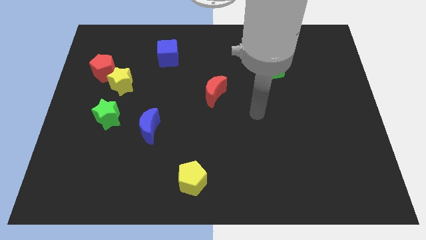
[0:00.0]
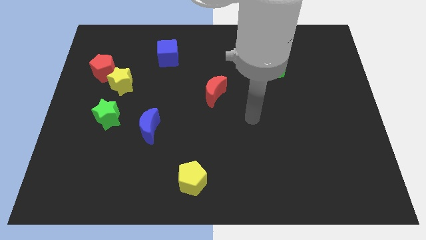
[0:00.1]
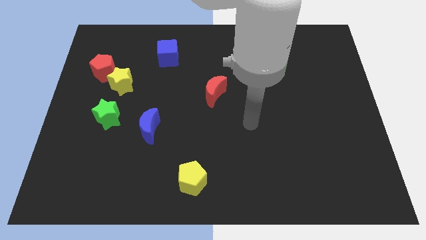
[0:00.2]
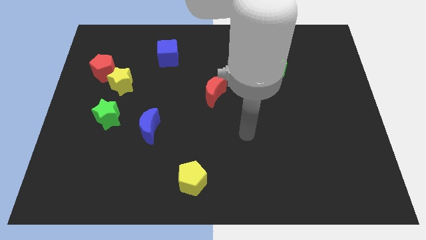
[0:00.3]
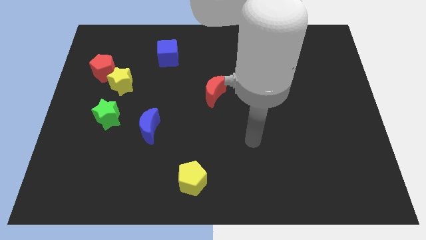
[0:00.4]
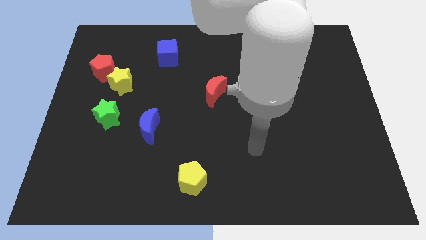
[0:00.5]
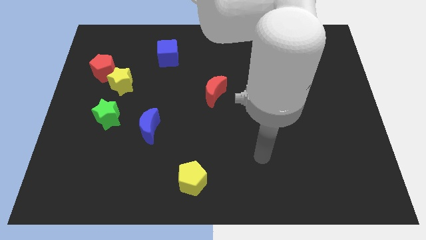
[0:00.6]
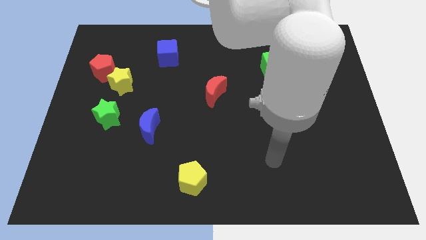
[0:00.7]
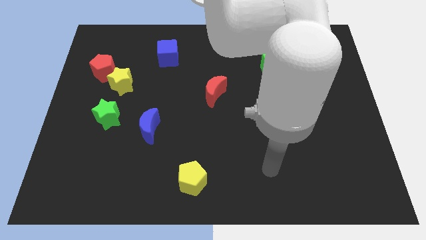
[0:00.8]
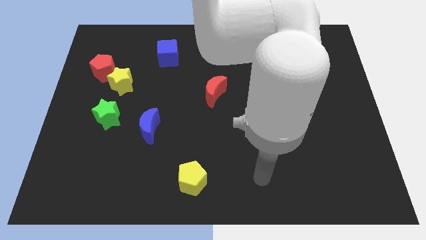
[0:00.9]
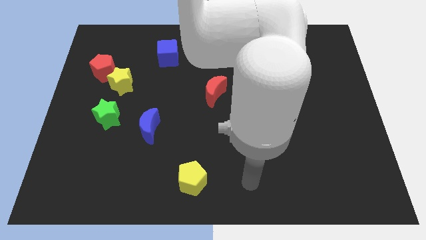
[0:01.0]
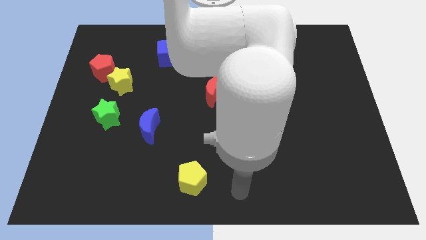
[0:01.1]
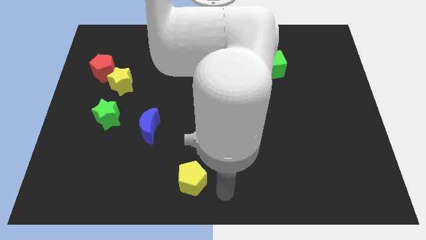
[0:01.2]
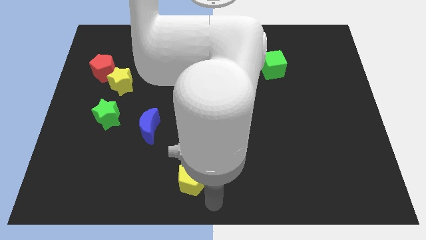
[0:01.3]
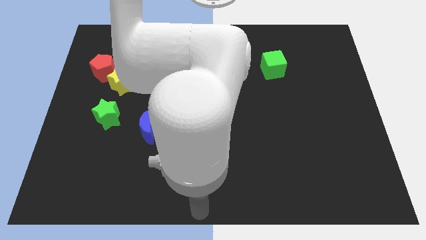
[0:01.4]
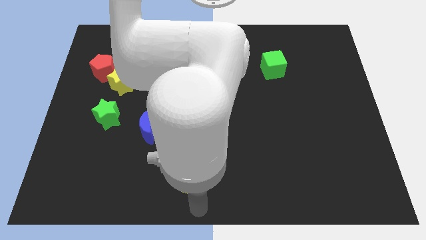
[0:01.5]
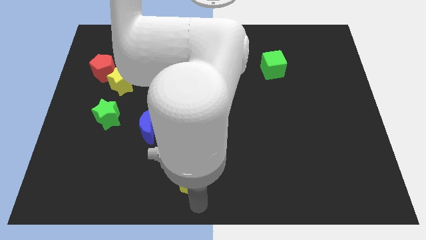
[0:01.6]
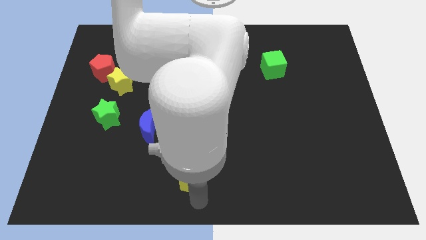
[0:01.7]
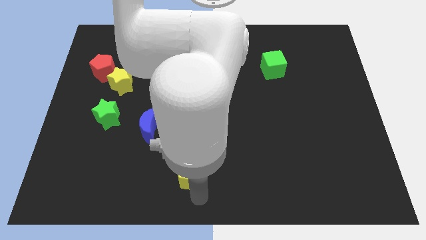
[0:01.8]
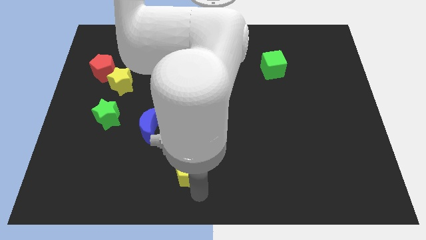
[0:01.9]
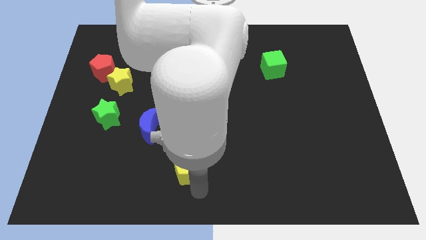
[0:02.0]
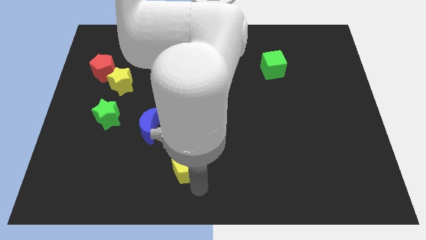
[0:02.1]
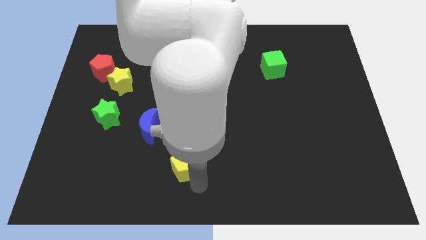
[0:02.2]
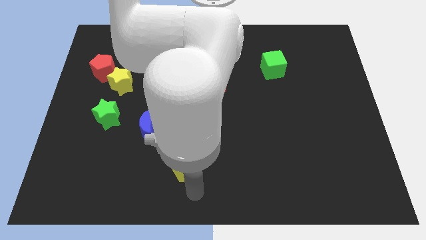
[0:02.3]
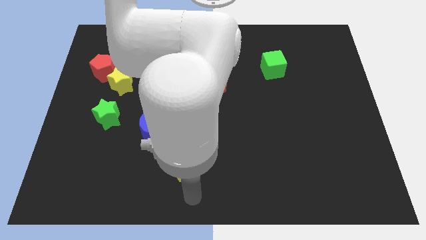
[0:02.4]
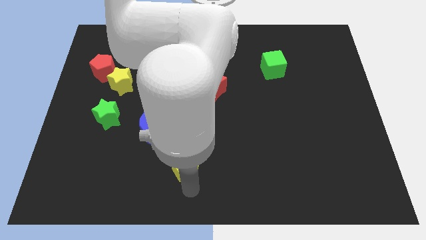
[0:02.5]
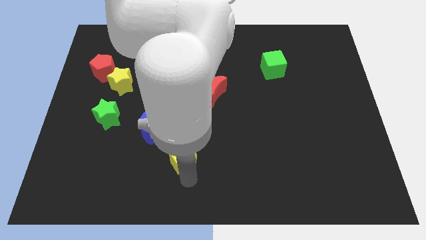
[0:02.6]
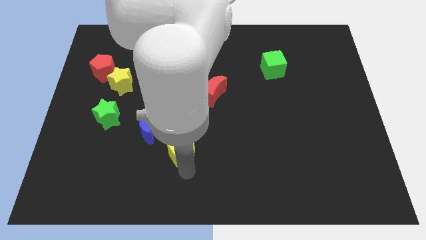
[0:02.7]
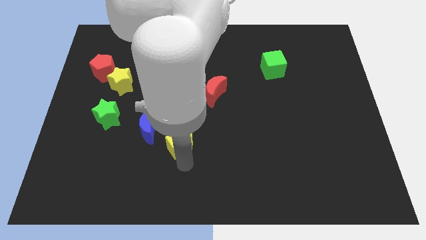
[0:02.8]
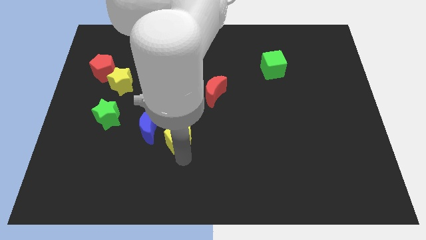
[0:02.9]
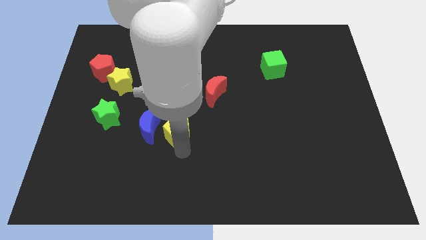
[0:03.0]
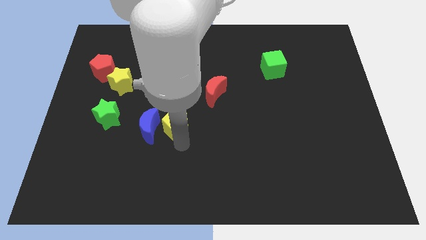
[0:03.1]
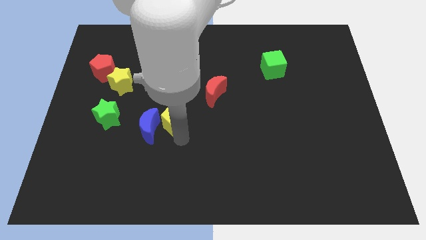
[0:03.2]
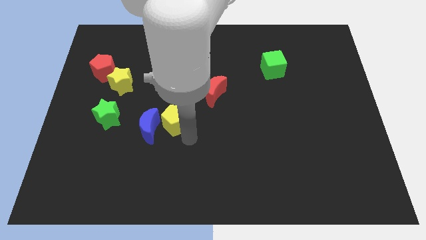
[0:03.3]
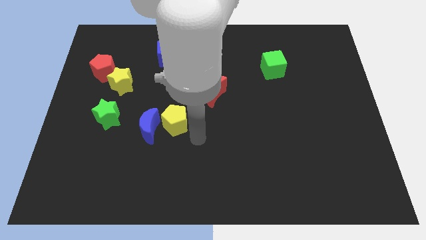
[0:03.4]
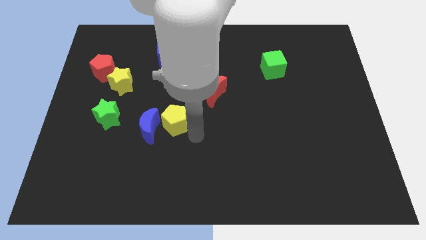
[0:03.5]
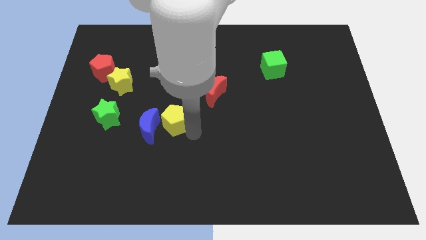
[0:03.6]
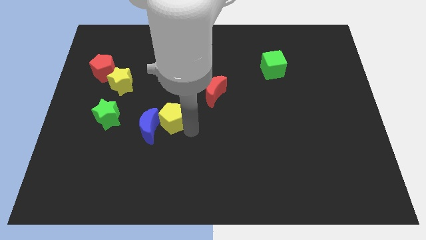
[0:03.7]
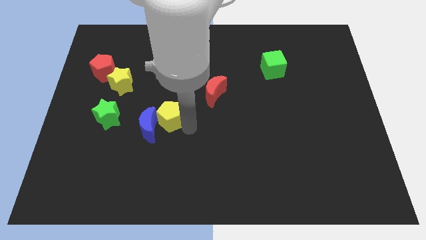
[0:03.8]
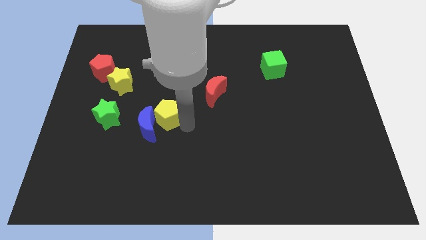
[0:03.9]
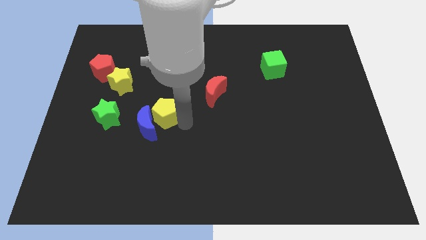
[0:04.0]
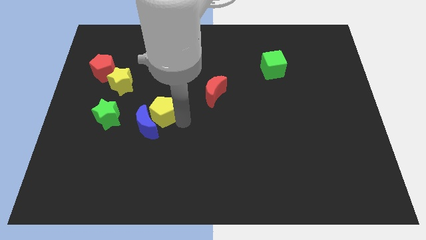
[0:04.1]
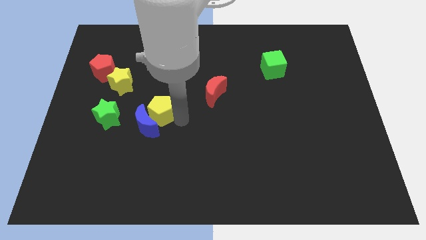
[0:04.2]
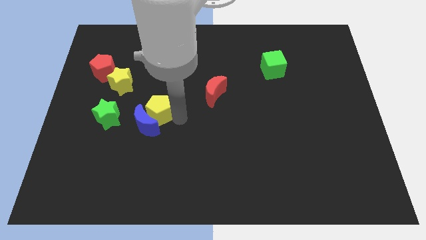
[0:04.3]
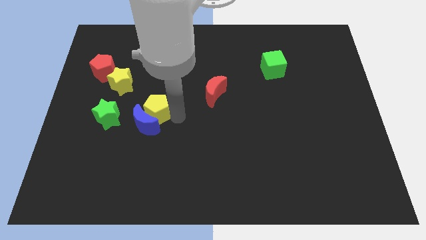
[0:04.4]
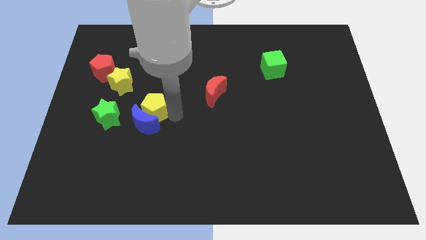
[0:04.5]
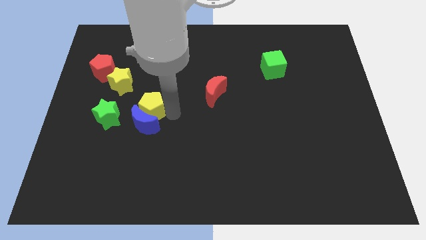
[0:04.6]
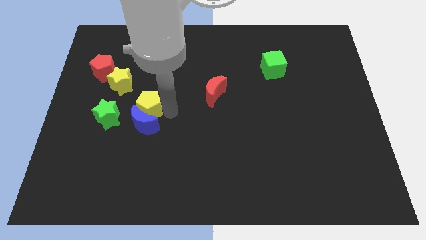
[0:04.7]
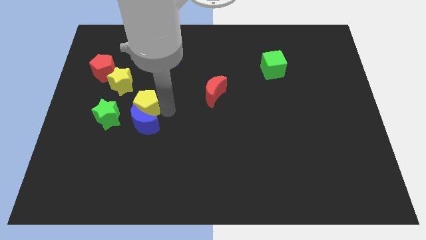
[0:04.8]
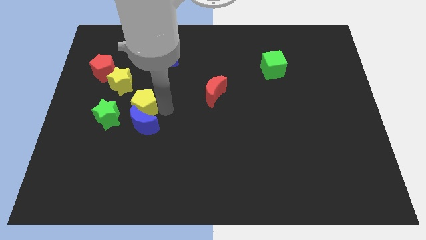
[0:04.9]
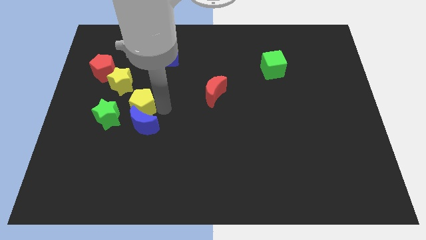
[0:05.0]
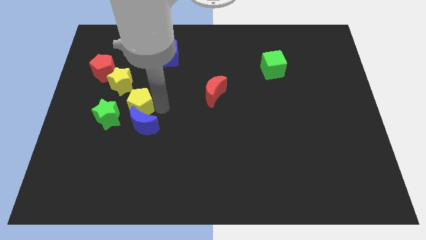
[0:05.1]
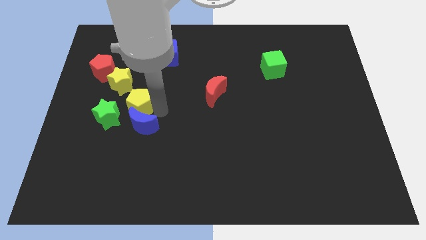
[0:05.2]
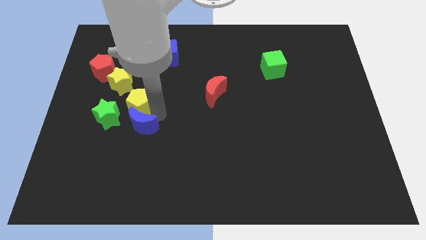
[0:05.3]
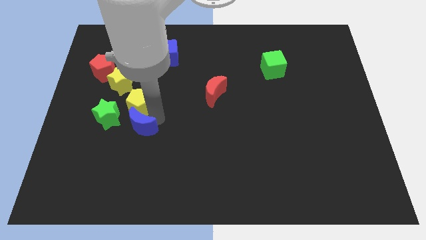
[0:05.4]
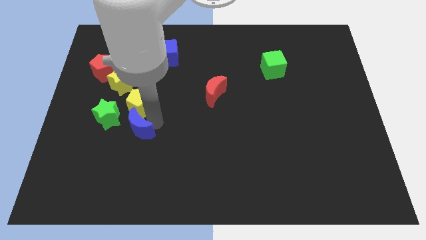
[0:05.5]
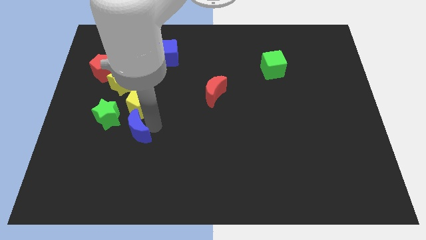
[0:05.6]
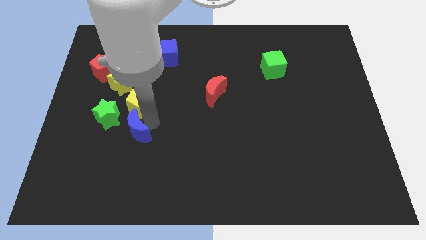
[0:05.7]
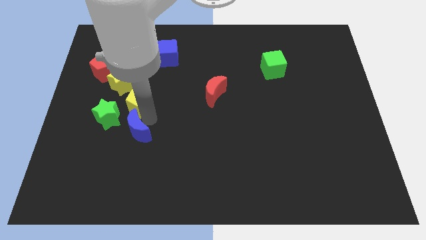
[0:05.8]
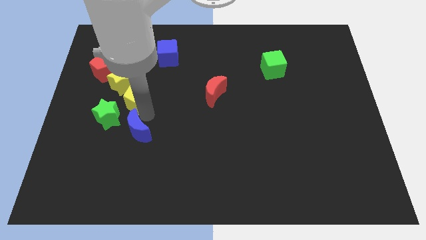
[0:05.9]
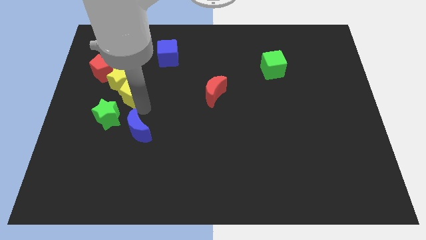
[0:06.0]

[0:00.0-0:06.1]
put the yellow pentagon close to the yellow star
